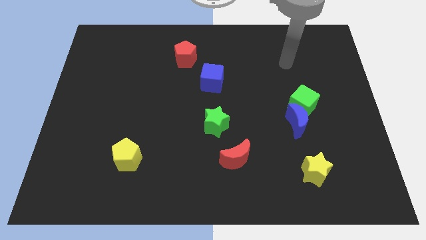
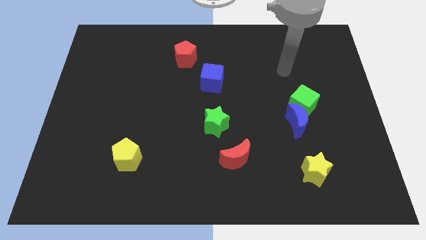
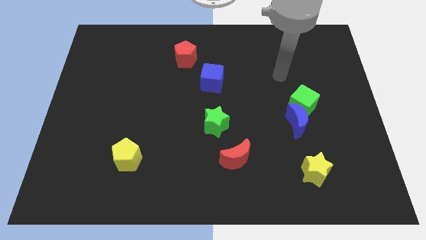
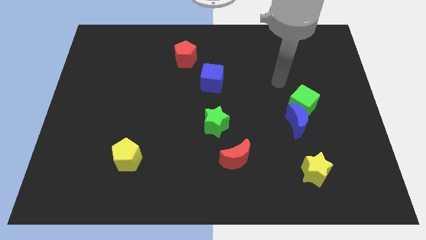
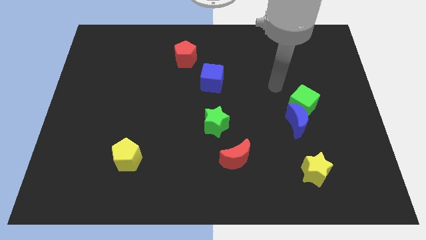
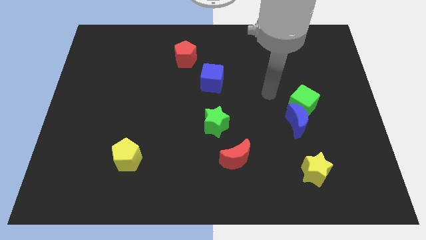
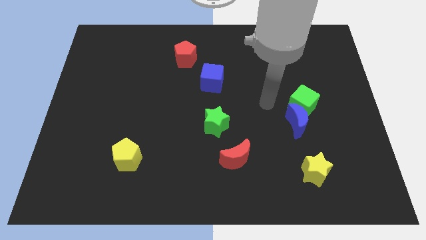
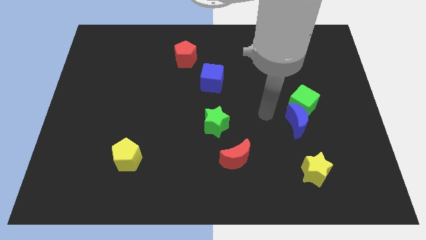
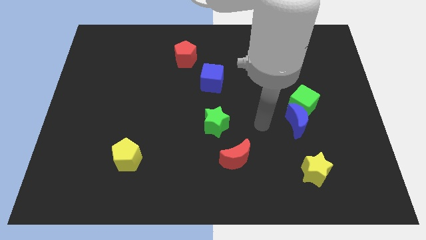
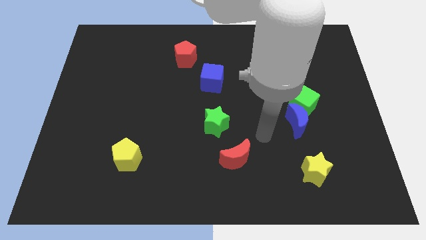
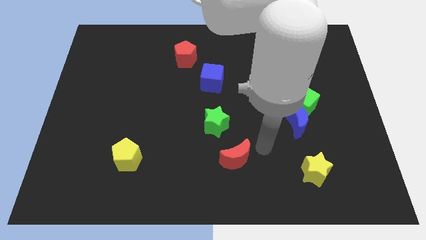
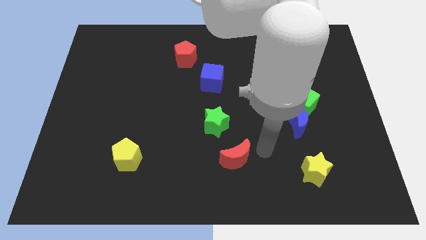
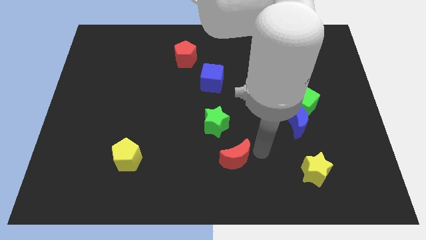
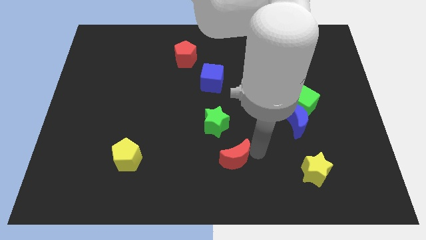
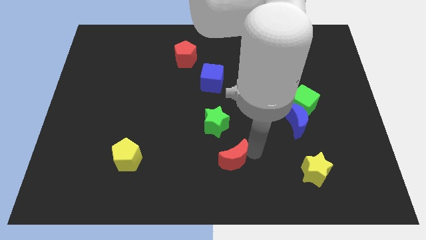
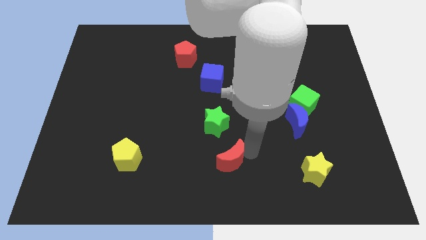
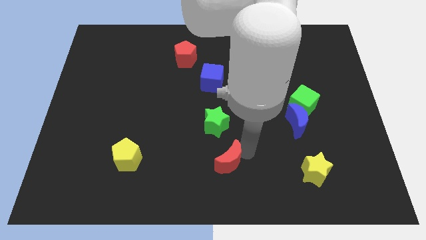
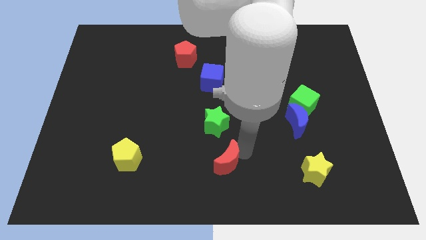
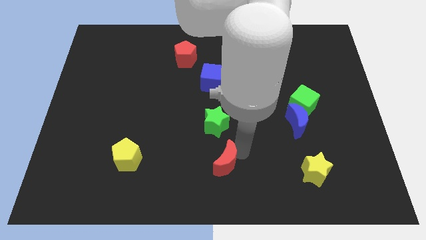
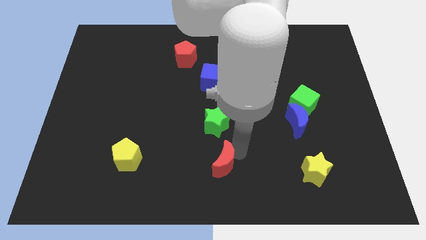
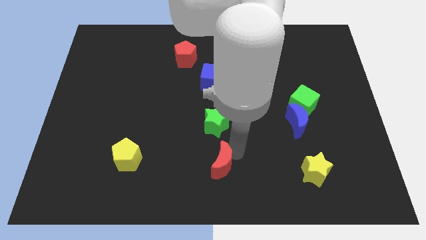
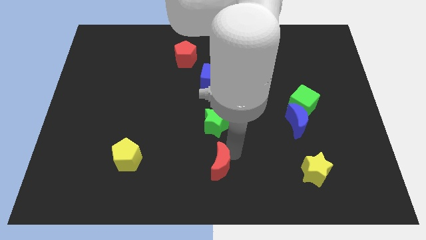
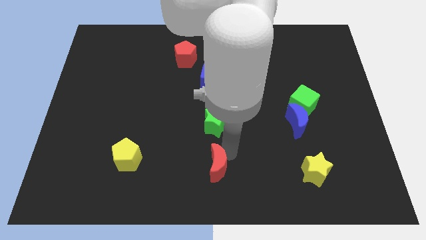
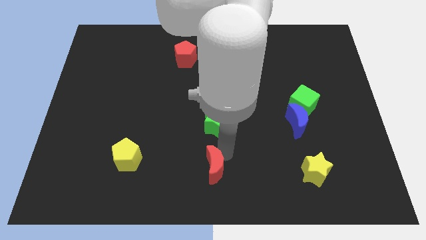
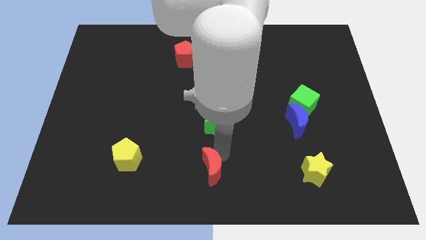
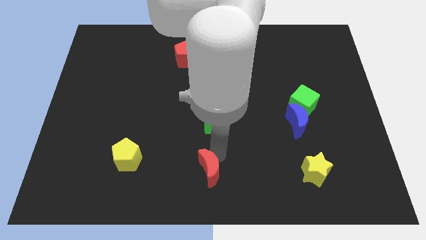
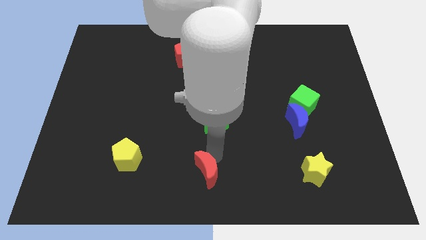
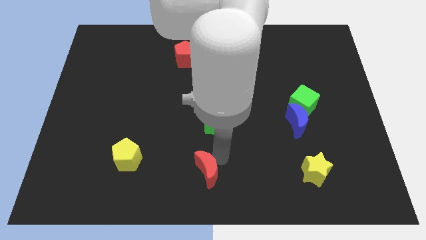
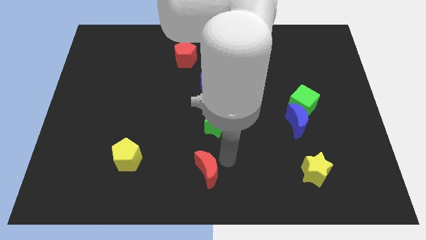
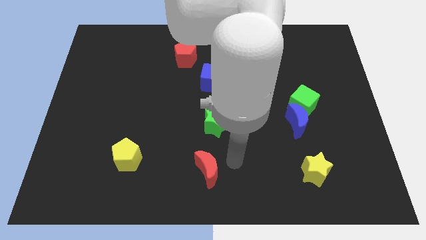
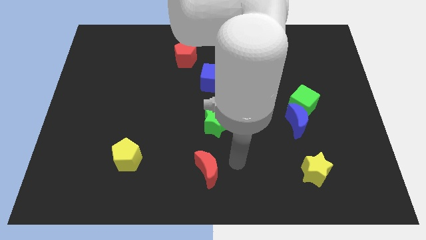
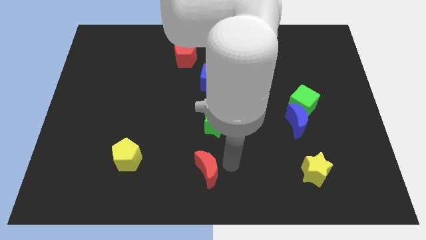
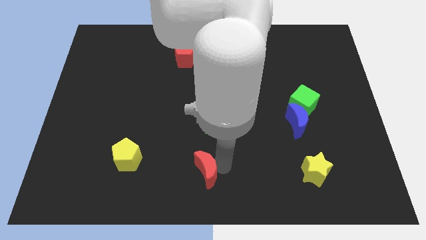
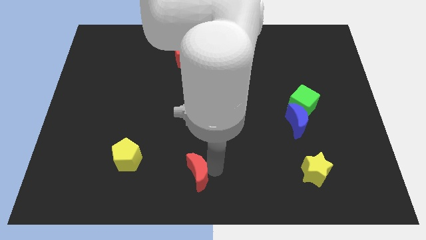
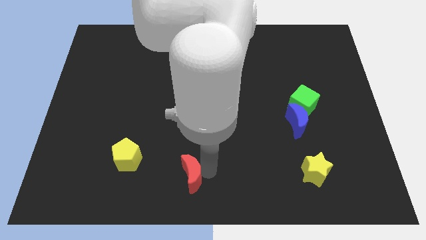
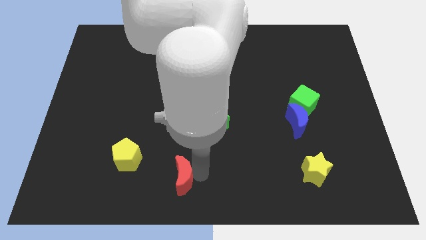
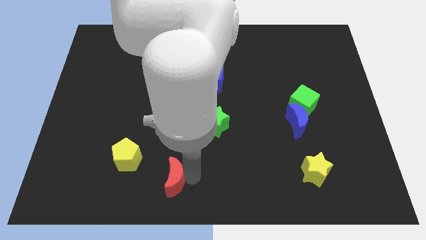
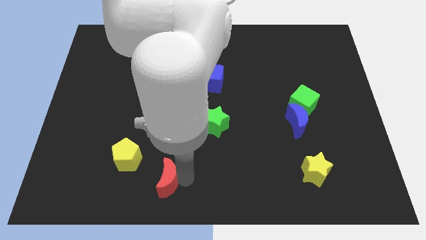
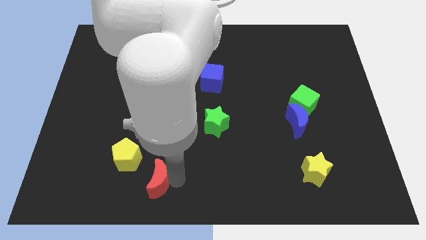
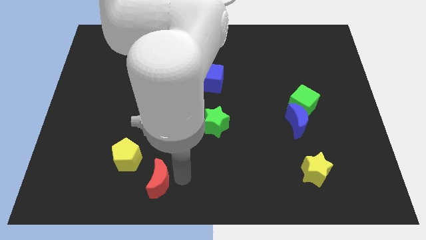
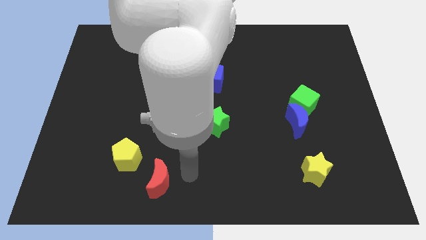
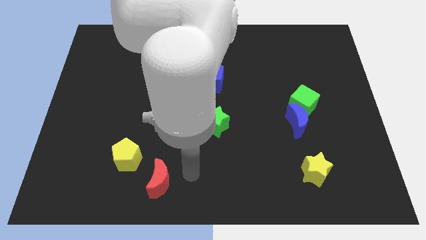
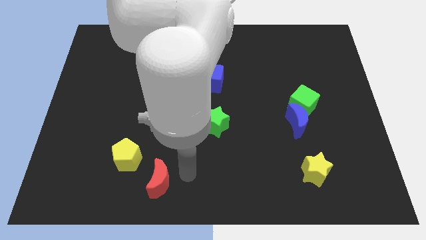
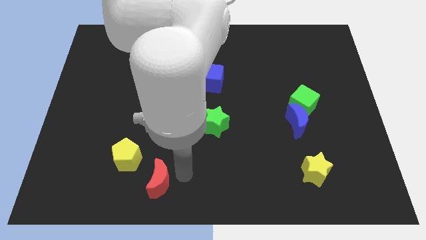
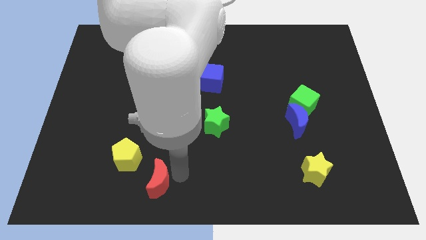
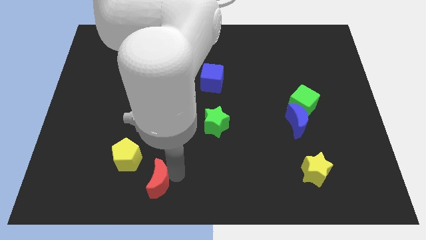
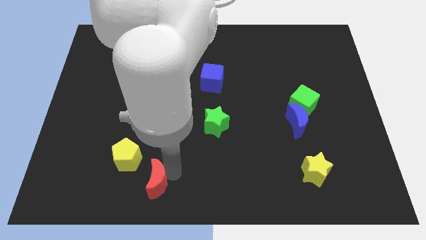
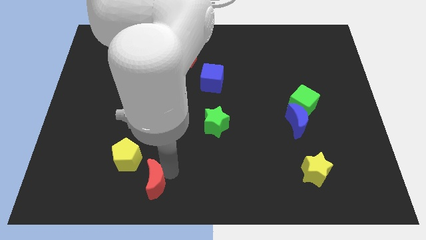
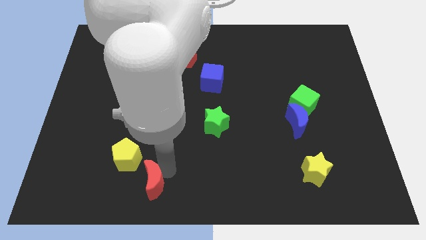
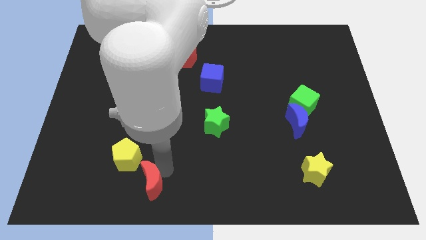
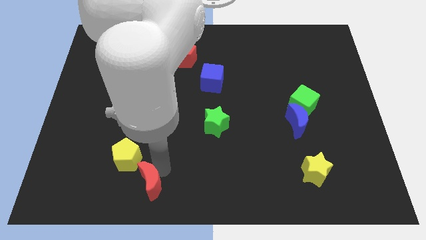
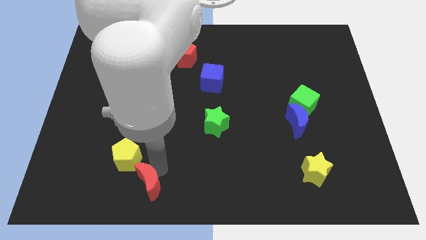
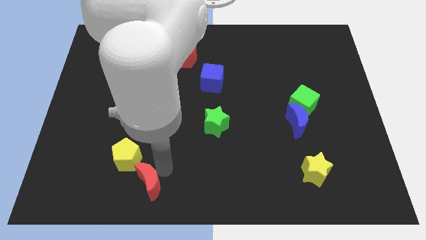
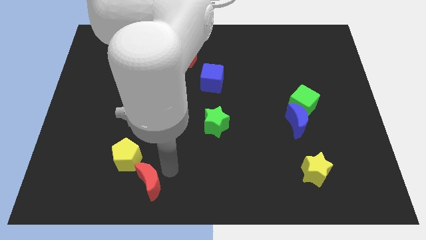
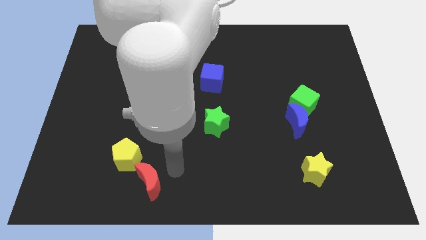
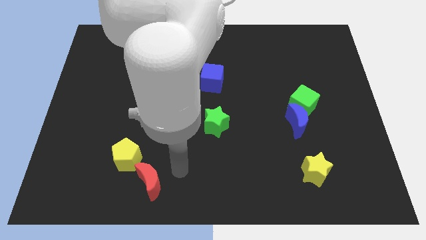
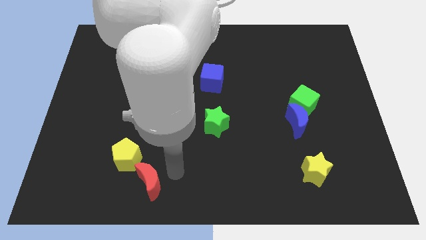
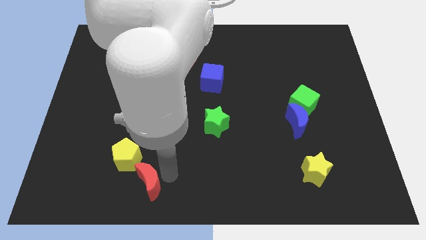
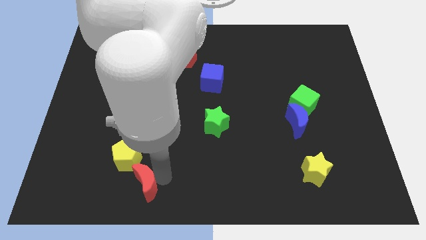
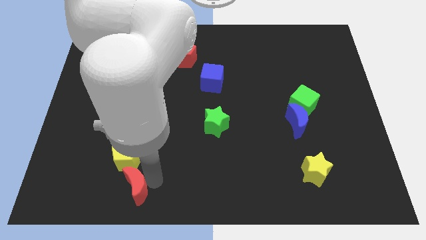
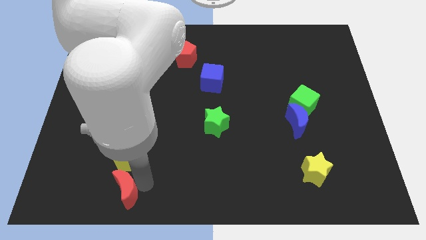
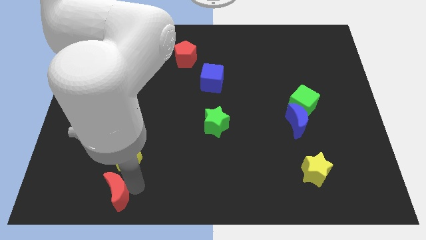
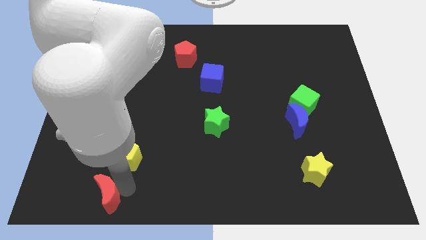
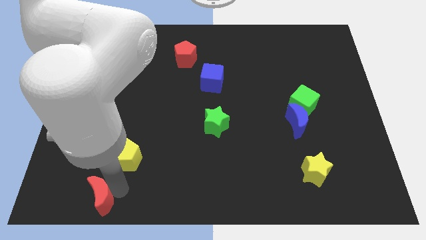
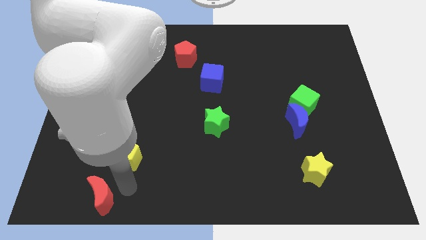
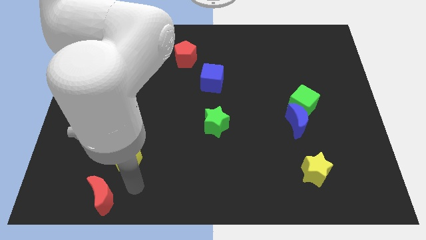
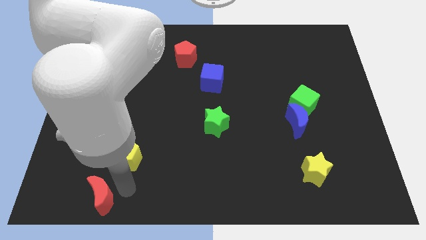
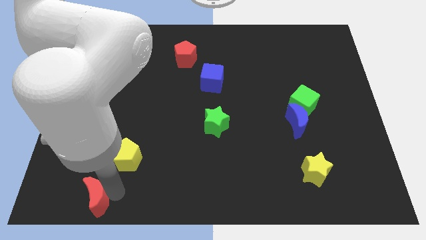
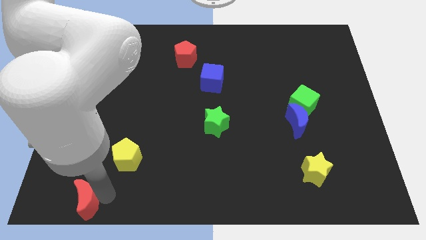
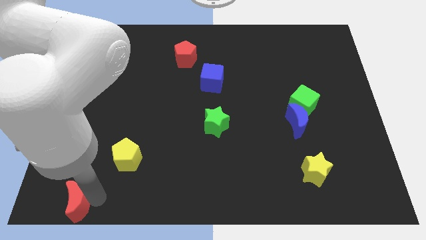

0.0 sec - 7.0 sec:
push the red moon to the lower left corner
